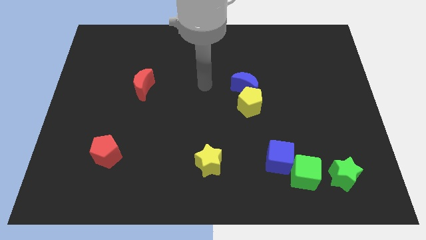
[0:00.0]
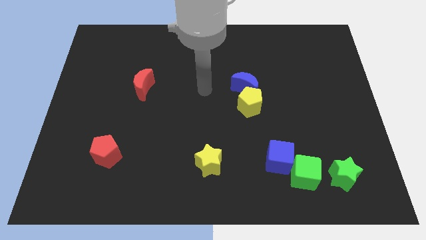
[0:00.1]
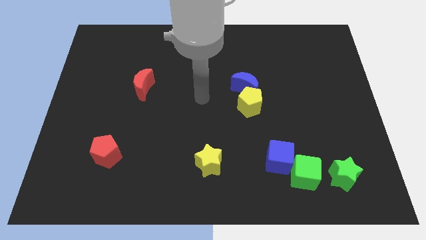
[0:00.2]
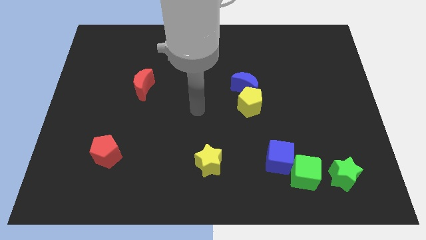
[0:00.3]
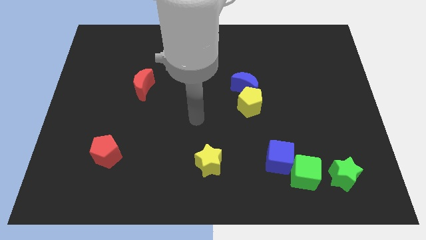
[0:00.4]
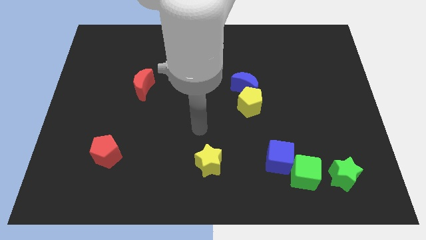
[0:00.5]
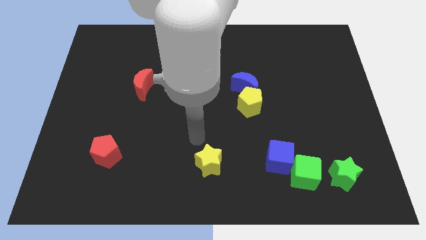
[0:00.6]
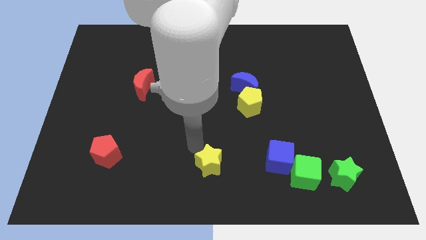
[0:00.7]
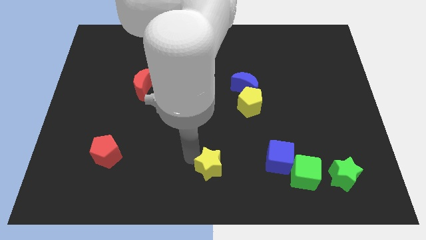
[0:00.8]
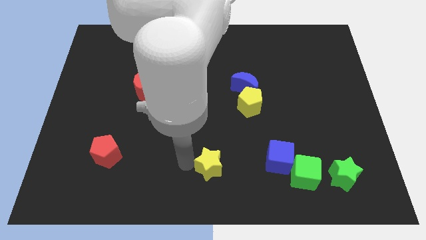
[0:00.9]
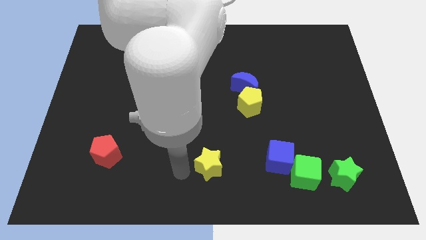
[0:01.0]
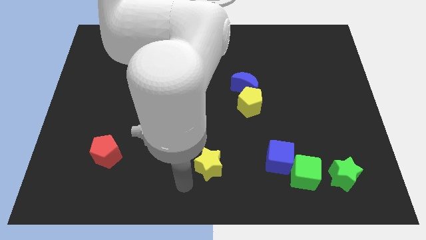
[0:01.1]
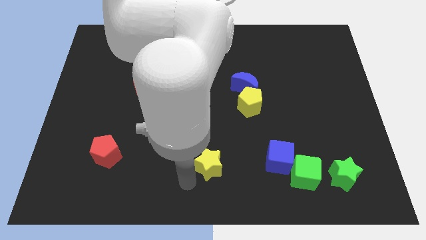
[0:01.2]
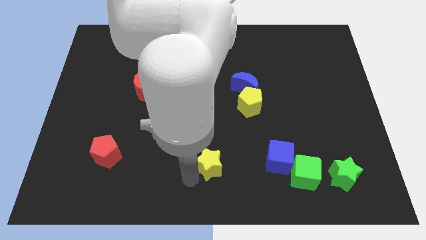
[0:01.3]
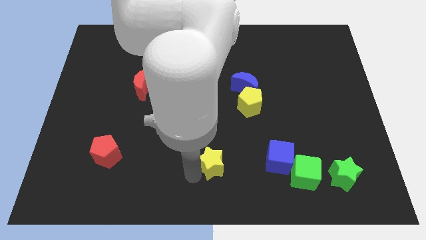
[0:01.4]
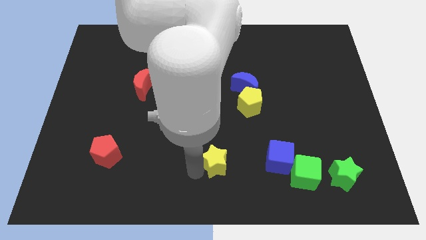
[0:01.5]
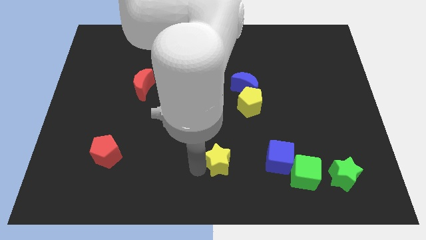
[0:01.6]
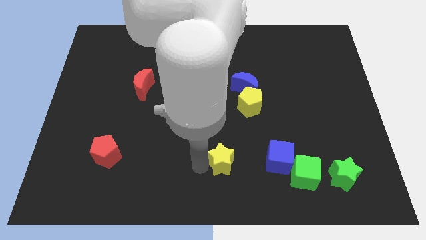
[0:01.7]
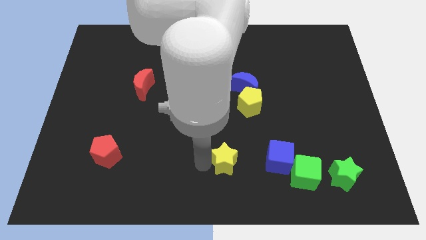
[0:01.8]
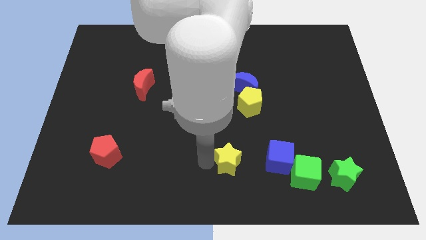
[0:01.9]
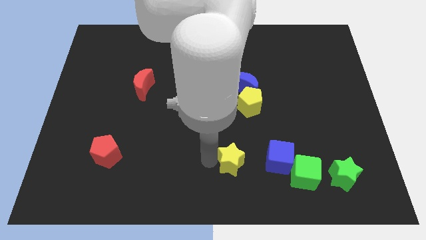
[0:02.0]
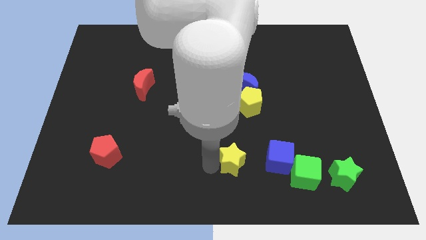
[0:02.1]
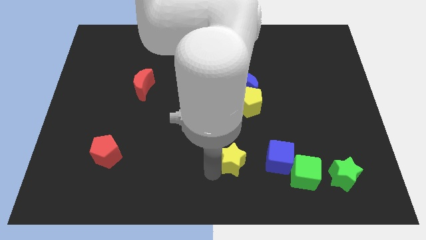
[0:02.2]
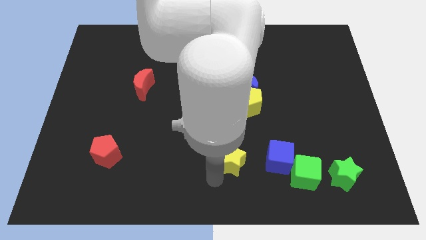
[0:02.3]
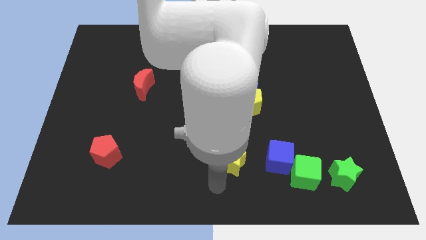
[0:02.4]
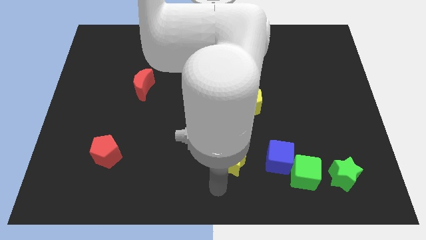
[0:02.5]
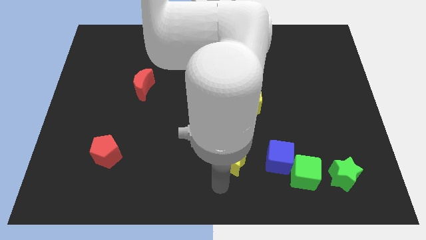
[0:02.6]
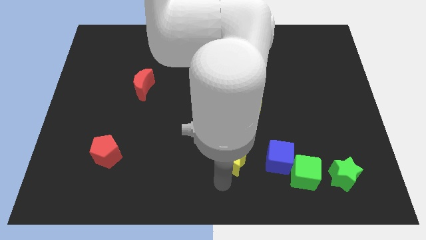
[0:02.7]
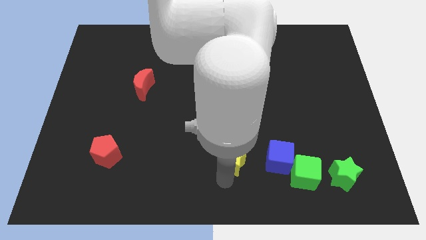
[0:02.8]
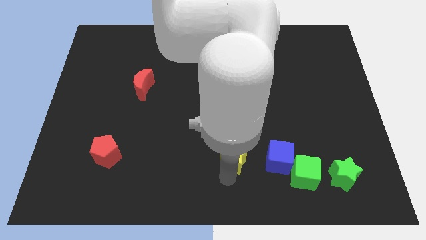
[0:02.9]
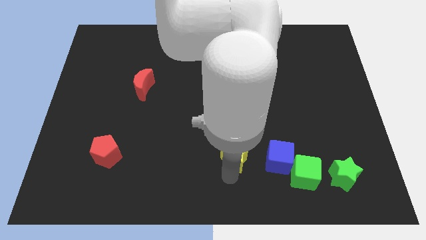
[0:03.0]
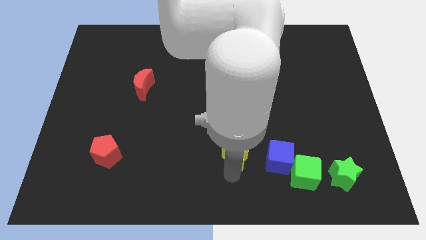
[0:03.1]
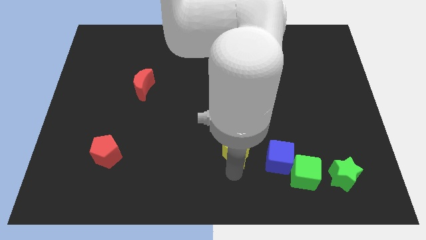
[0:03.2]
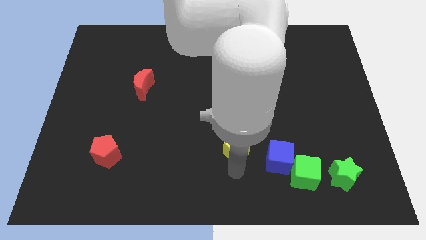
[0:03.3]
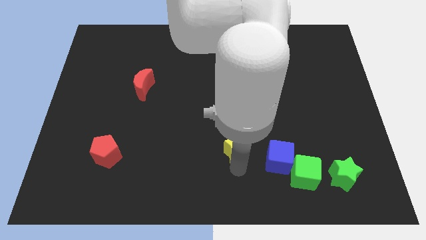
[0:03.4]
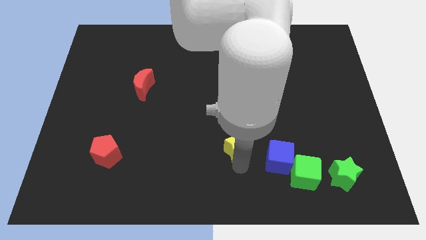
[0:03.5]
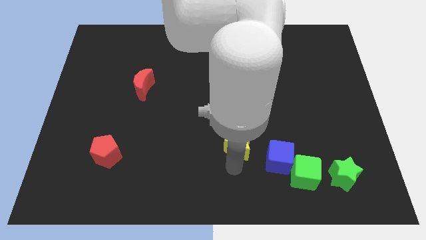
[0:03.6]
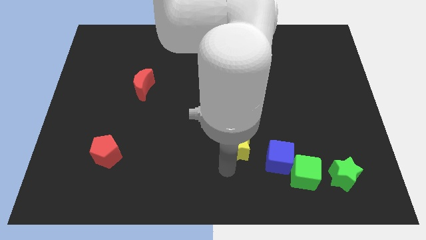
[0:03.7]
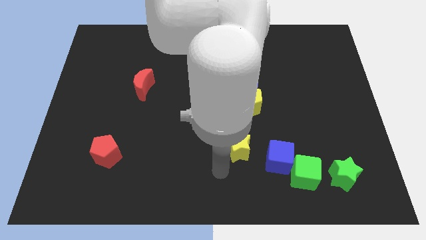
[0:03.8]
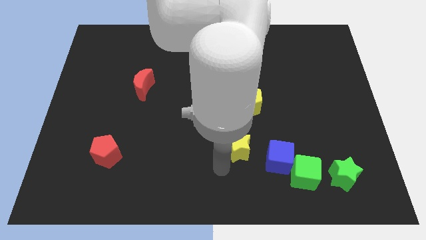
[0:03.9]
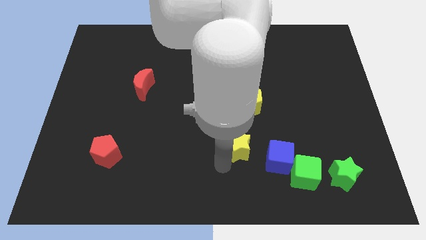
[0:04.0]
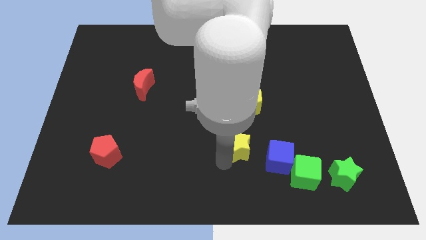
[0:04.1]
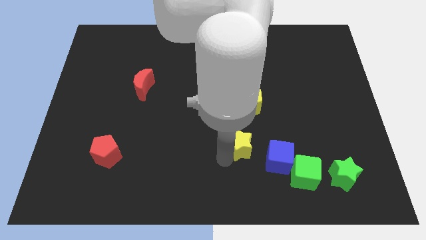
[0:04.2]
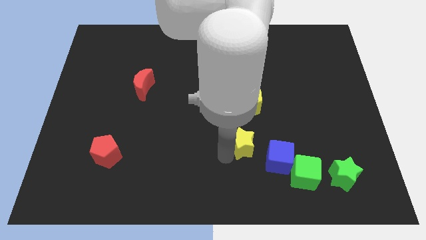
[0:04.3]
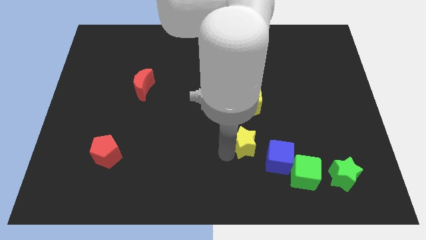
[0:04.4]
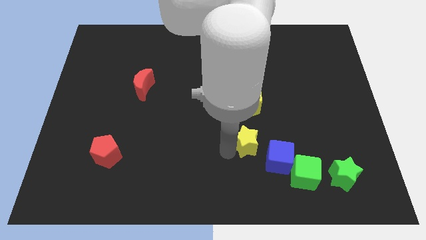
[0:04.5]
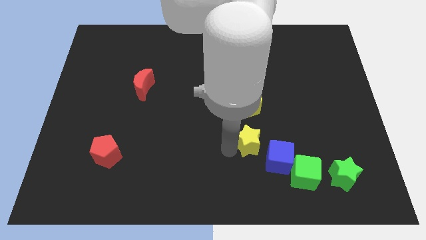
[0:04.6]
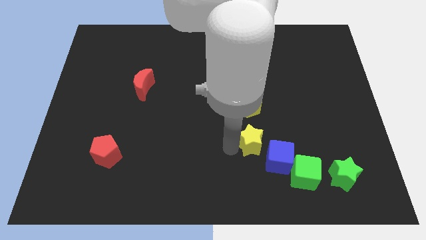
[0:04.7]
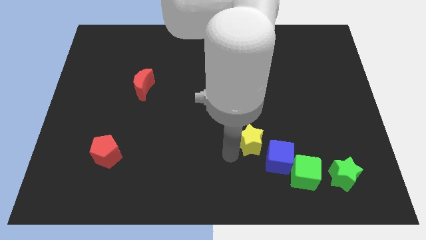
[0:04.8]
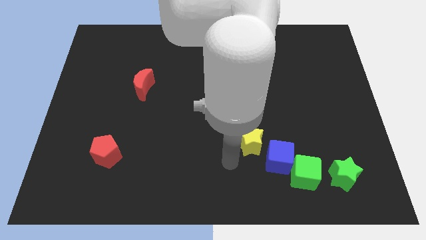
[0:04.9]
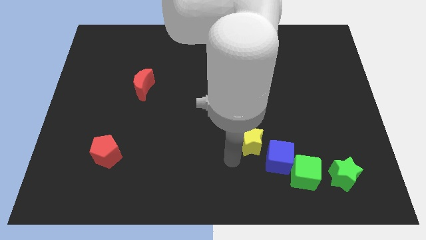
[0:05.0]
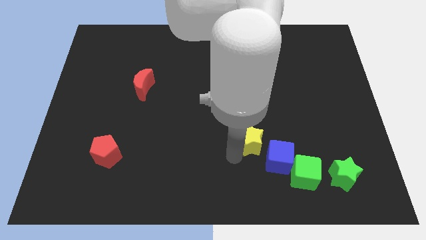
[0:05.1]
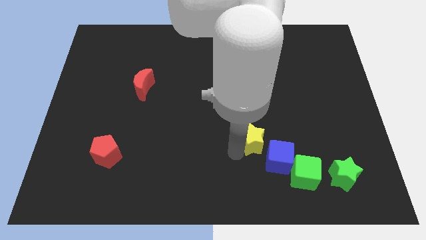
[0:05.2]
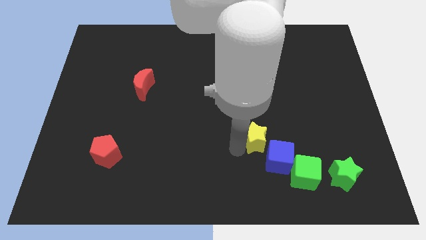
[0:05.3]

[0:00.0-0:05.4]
put the yellow star to the top of the blue cube

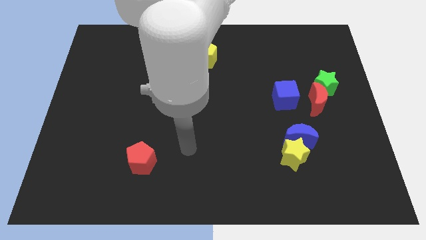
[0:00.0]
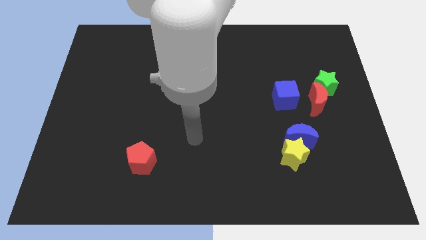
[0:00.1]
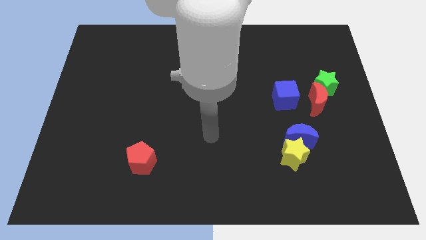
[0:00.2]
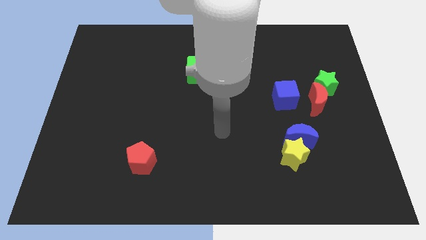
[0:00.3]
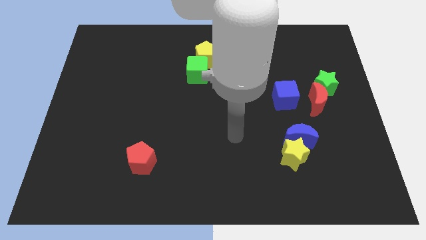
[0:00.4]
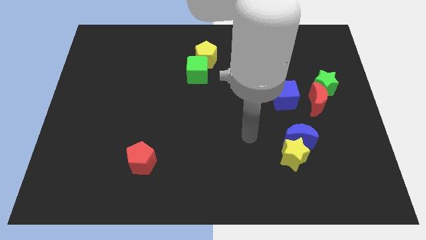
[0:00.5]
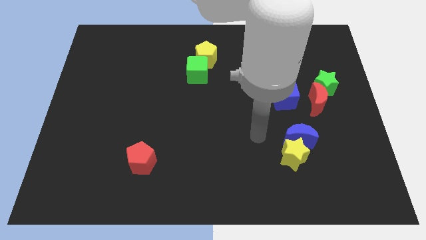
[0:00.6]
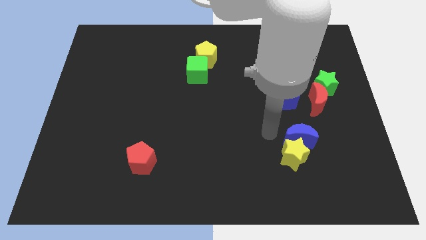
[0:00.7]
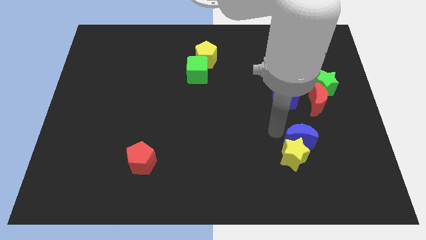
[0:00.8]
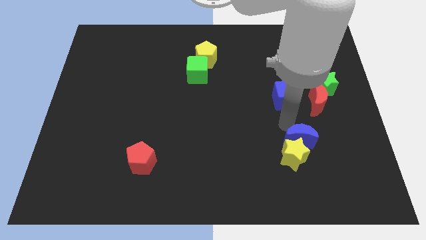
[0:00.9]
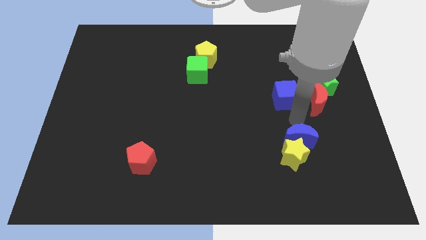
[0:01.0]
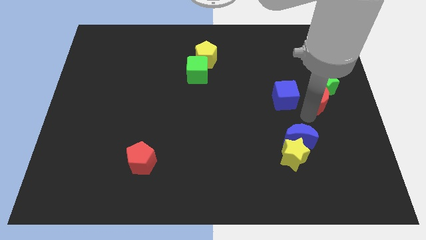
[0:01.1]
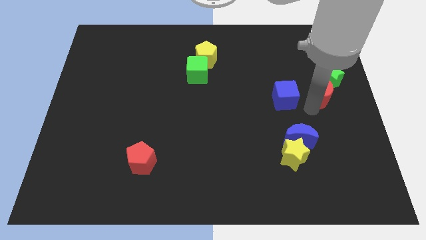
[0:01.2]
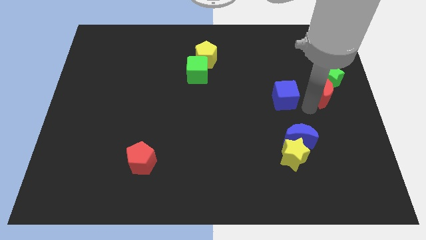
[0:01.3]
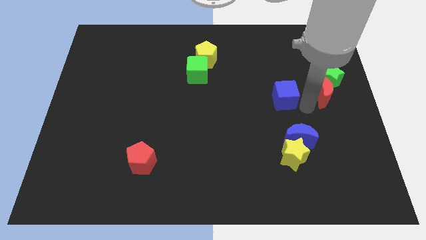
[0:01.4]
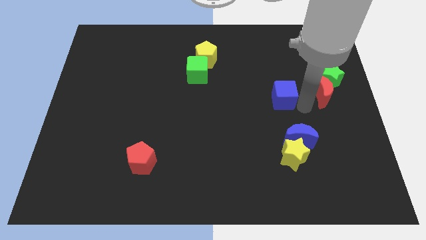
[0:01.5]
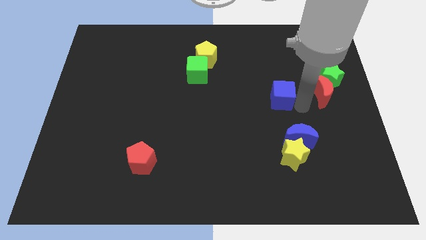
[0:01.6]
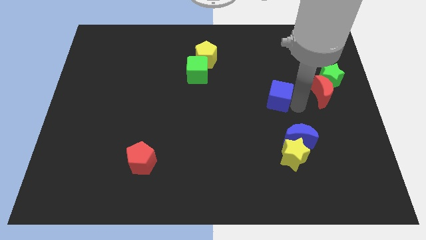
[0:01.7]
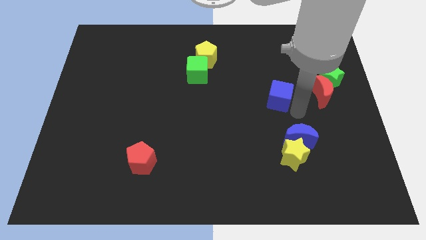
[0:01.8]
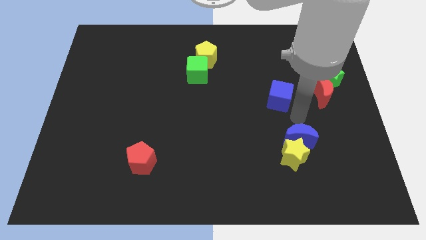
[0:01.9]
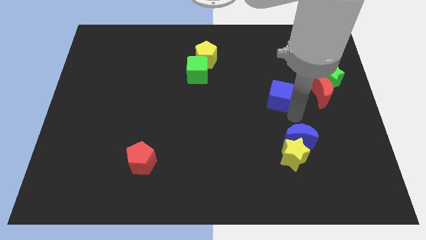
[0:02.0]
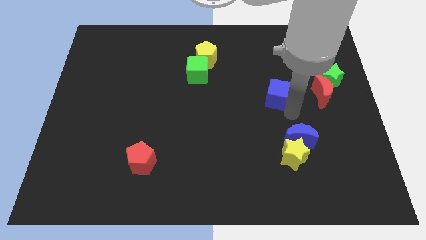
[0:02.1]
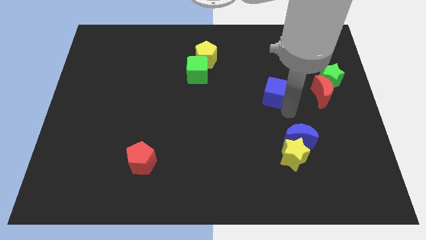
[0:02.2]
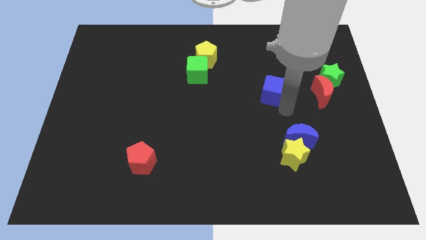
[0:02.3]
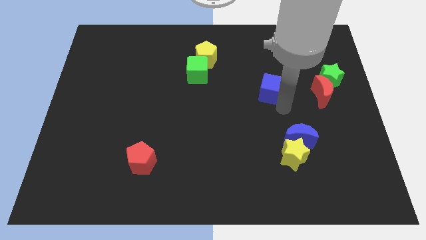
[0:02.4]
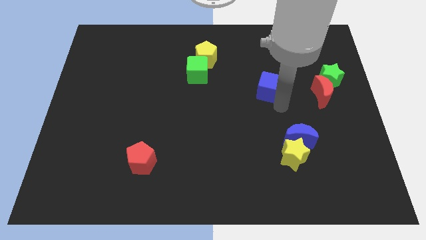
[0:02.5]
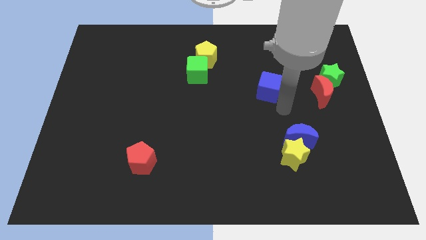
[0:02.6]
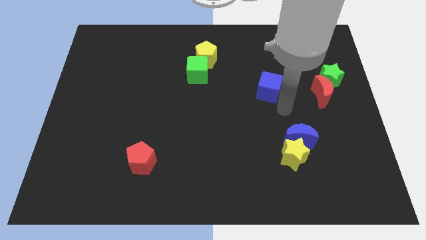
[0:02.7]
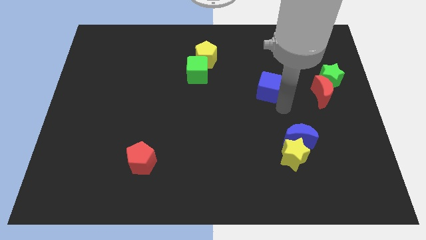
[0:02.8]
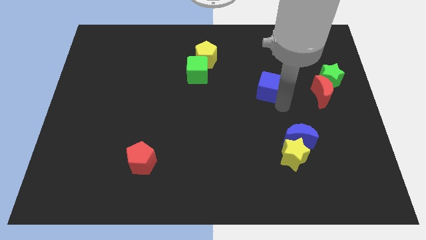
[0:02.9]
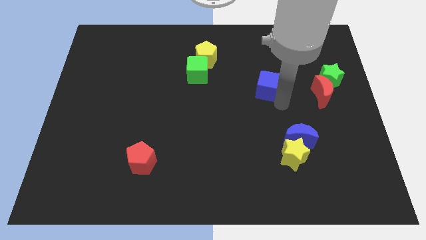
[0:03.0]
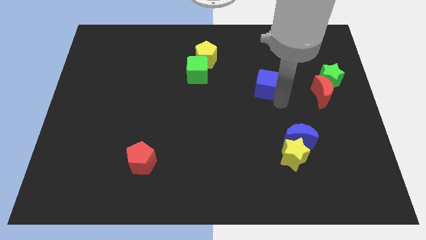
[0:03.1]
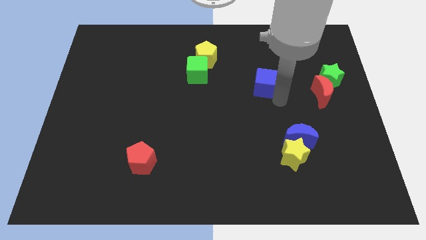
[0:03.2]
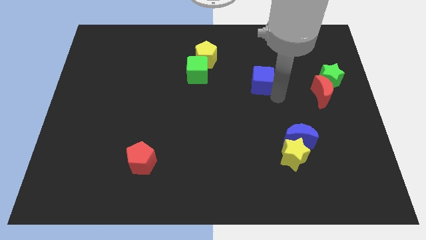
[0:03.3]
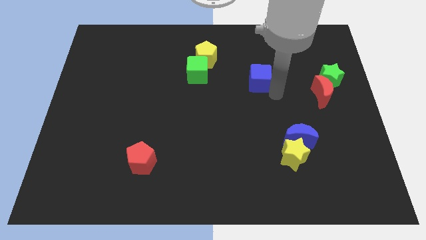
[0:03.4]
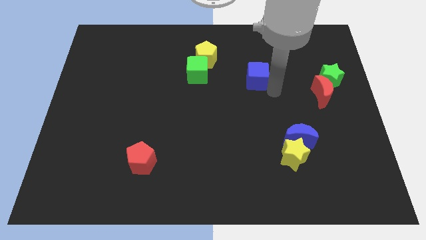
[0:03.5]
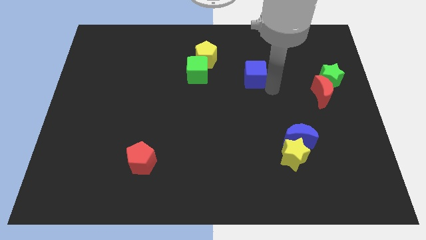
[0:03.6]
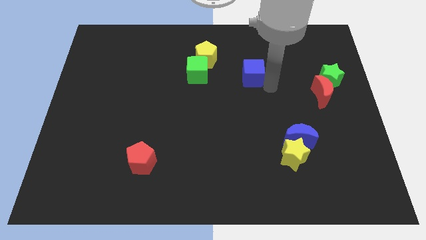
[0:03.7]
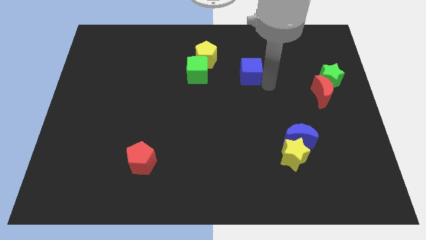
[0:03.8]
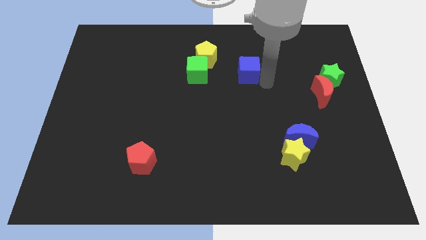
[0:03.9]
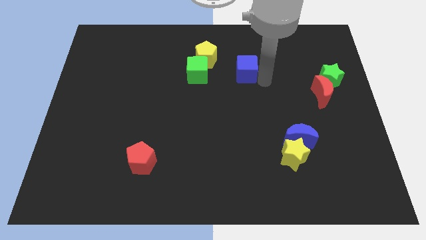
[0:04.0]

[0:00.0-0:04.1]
put the blue cube to the right side of the yellow pentagon
